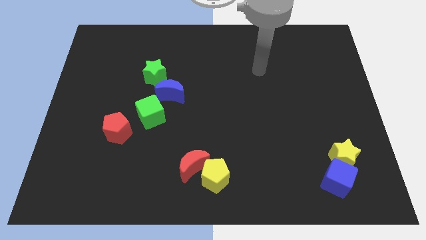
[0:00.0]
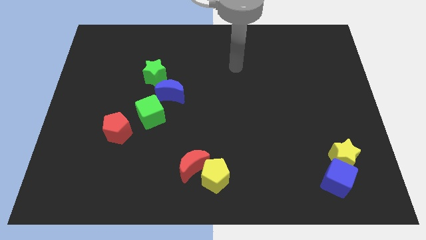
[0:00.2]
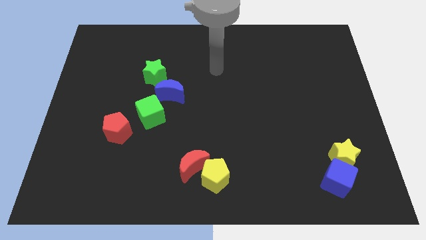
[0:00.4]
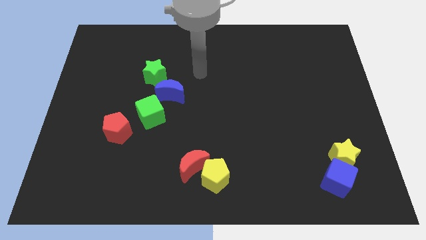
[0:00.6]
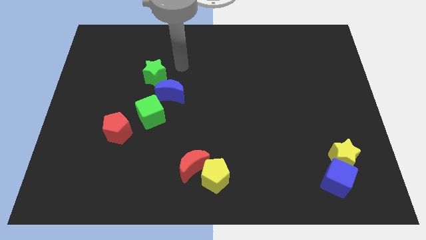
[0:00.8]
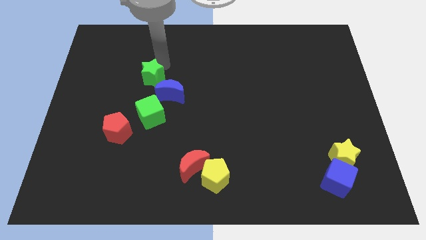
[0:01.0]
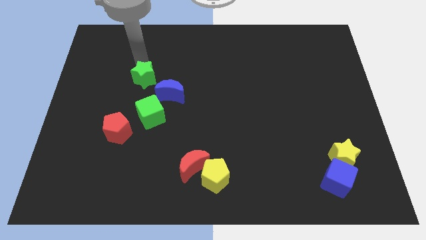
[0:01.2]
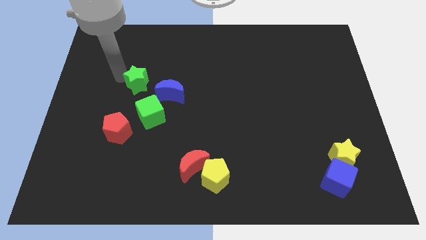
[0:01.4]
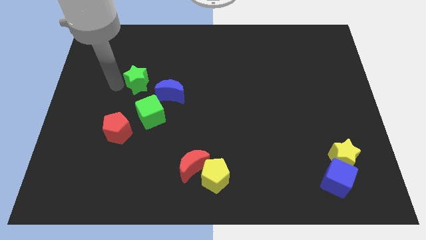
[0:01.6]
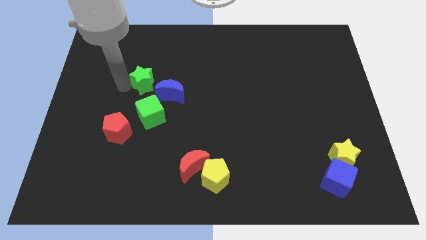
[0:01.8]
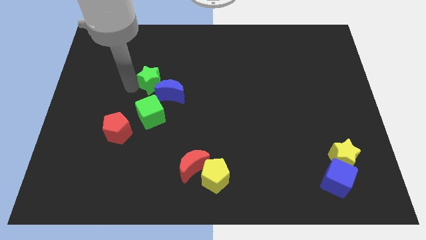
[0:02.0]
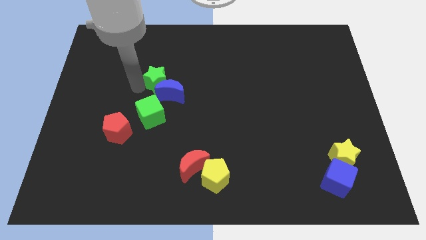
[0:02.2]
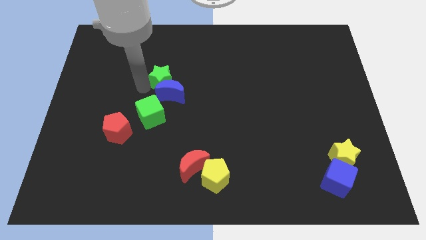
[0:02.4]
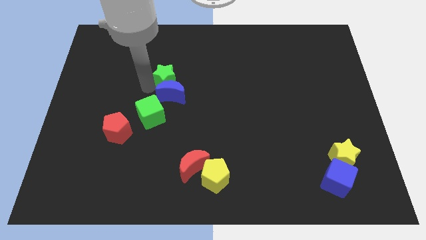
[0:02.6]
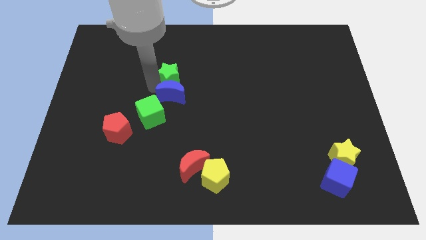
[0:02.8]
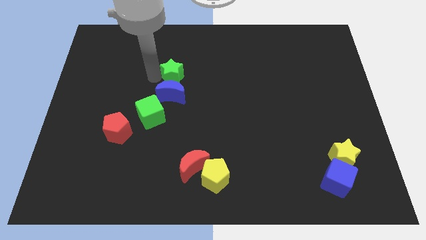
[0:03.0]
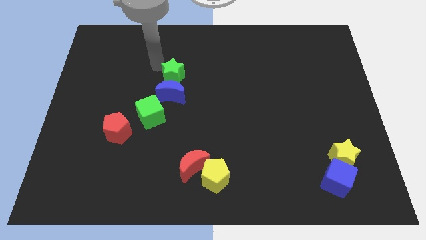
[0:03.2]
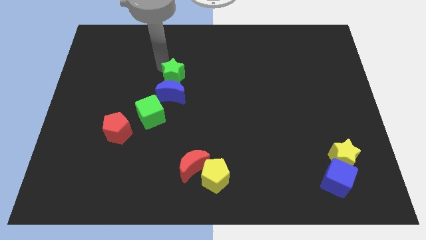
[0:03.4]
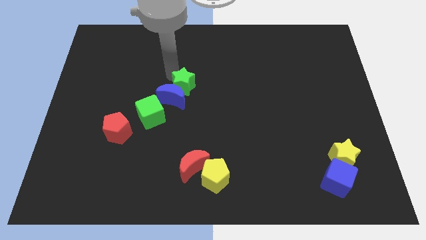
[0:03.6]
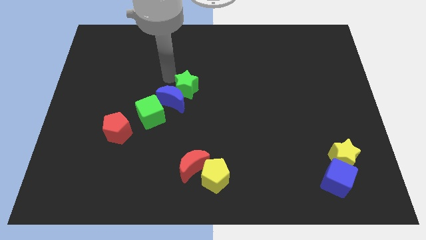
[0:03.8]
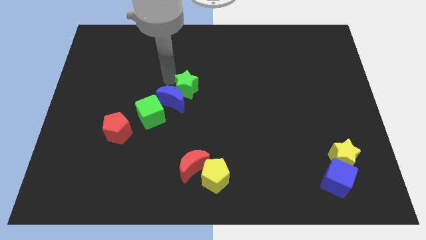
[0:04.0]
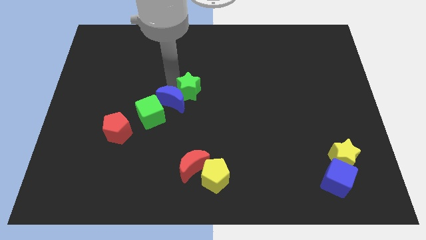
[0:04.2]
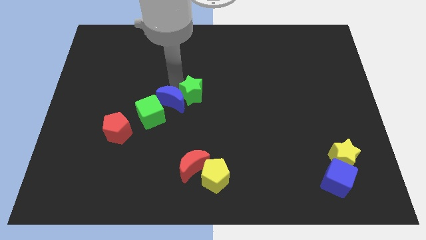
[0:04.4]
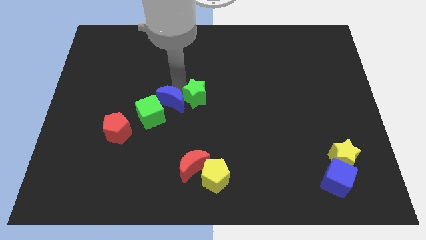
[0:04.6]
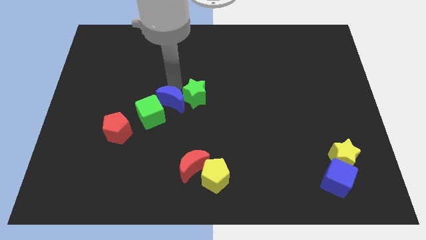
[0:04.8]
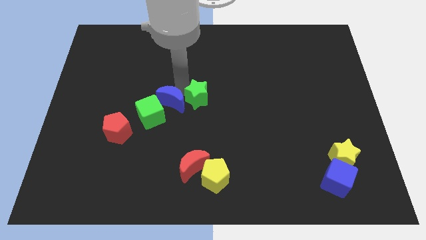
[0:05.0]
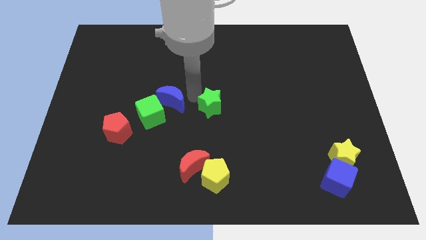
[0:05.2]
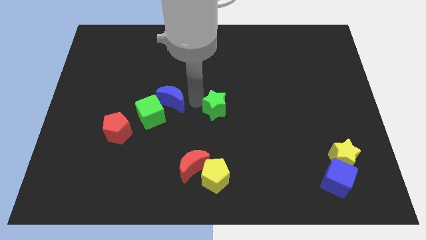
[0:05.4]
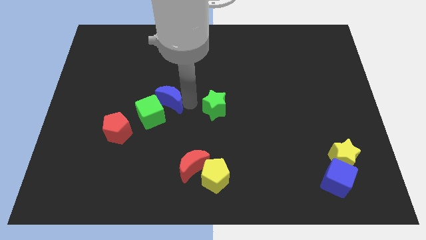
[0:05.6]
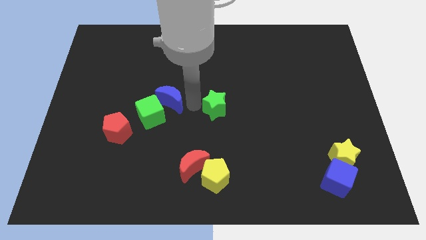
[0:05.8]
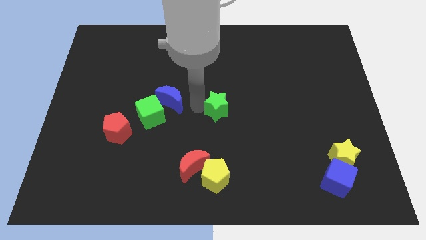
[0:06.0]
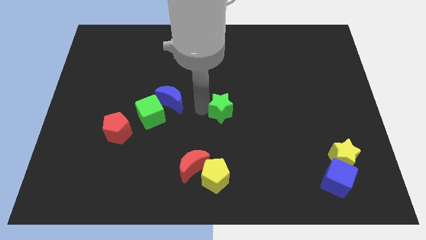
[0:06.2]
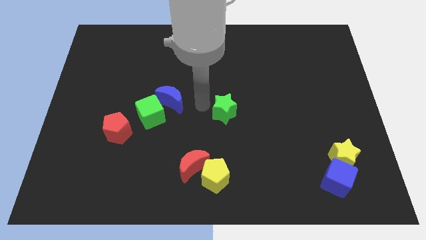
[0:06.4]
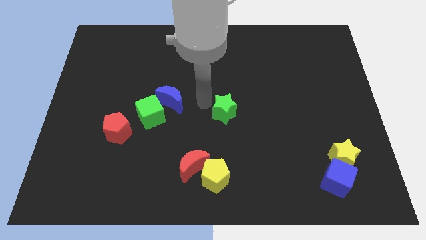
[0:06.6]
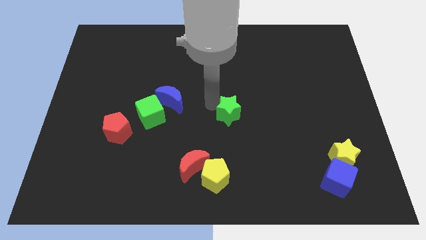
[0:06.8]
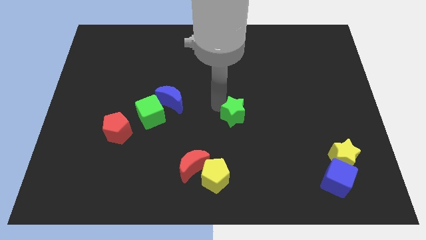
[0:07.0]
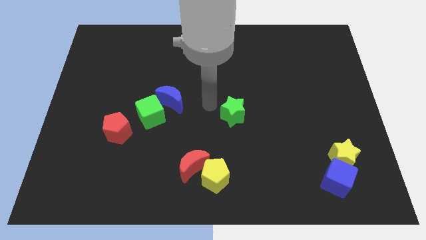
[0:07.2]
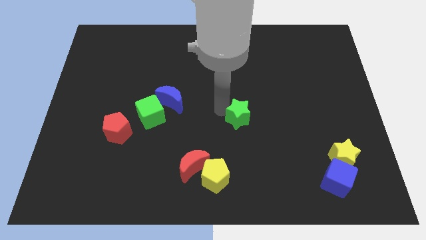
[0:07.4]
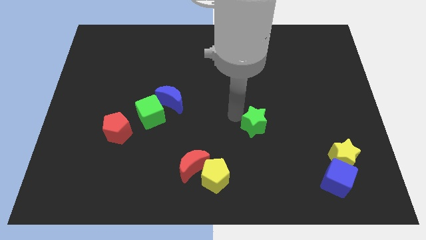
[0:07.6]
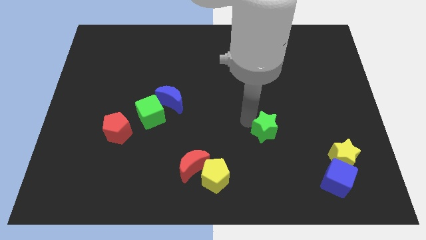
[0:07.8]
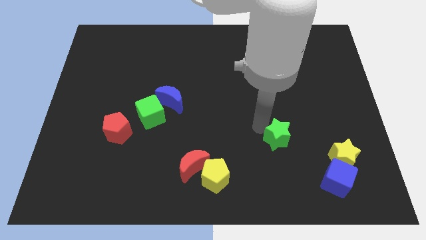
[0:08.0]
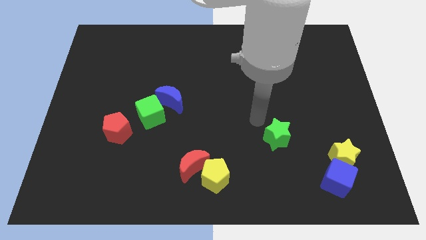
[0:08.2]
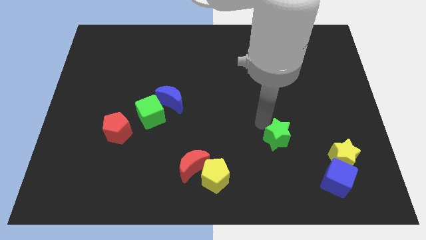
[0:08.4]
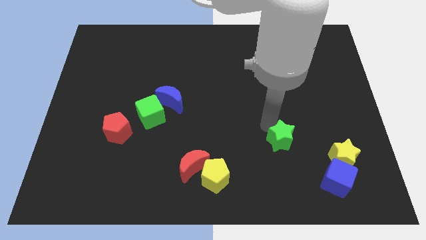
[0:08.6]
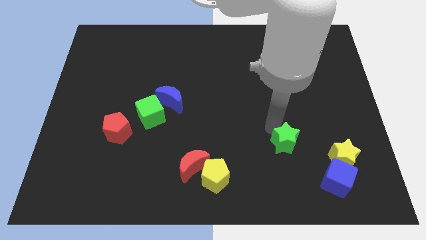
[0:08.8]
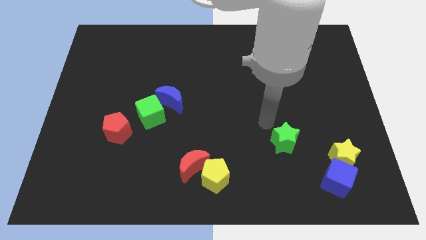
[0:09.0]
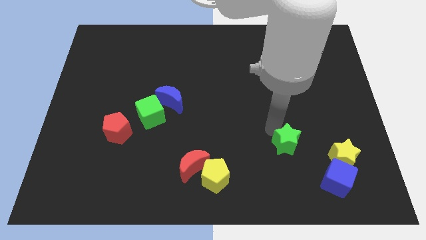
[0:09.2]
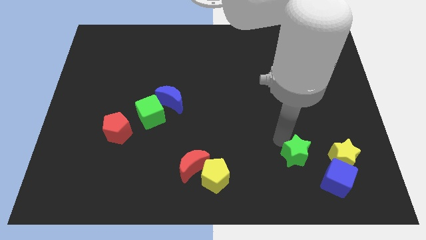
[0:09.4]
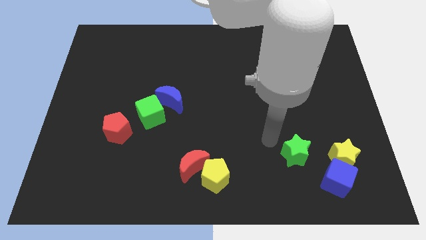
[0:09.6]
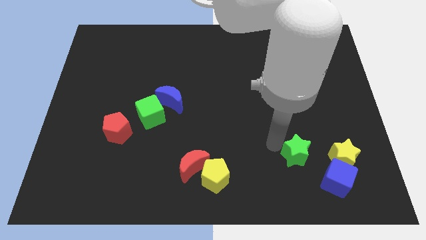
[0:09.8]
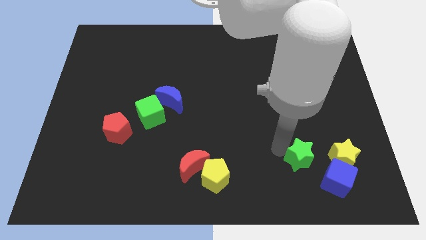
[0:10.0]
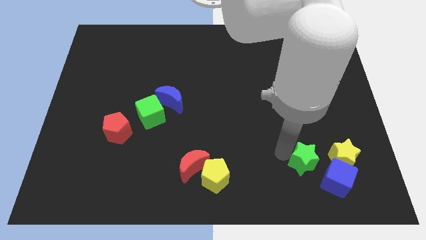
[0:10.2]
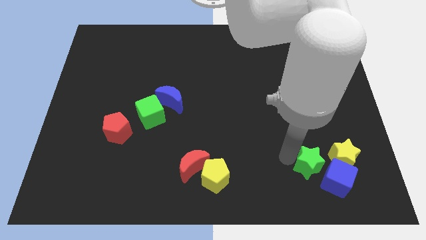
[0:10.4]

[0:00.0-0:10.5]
move the green star towards the blue cube

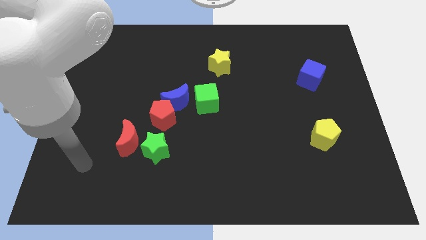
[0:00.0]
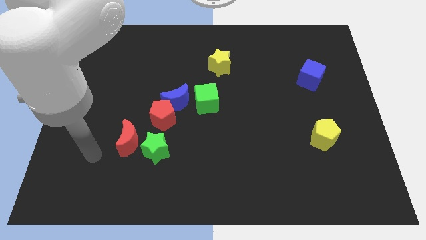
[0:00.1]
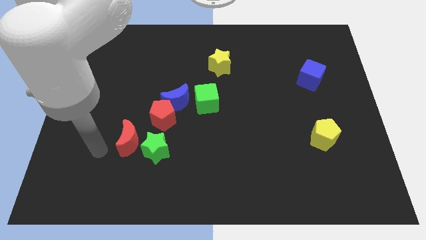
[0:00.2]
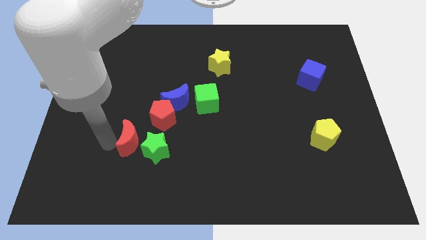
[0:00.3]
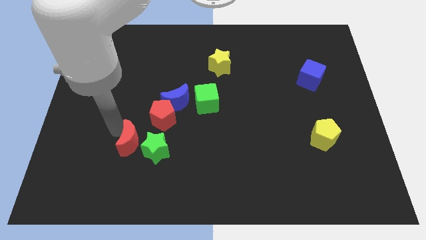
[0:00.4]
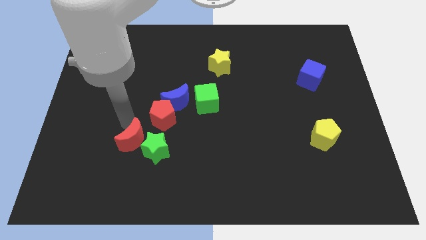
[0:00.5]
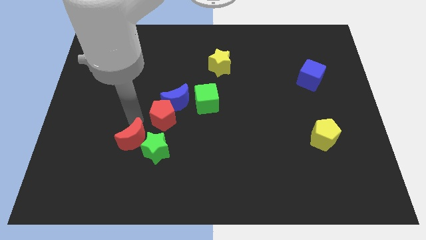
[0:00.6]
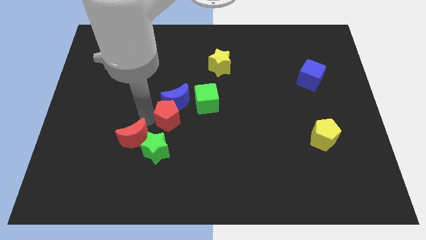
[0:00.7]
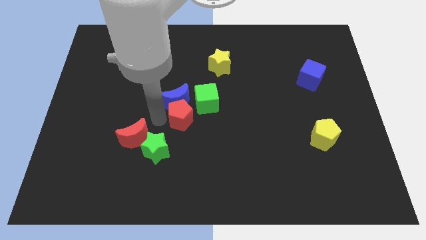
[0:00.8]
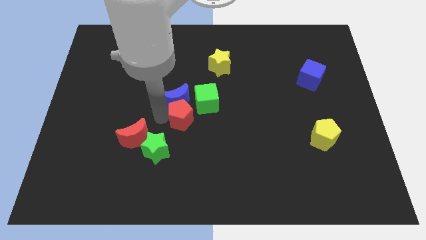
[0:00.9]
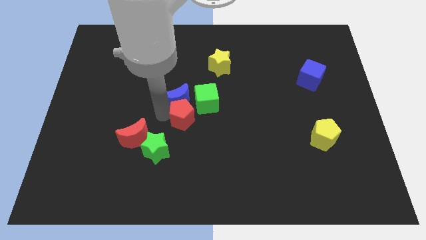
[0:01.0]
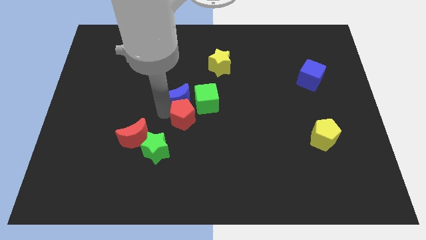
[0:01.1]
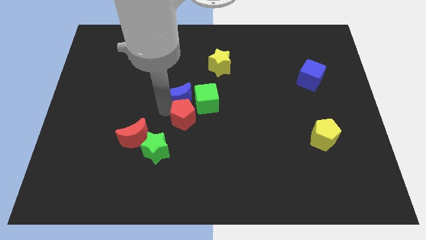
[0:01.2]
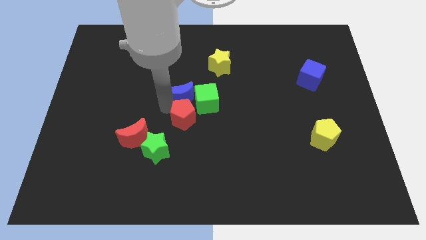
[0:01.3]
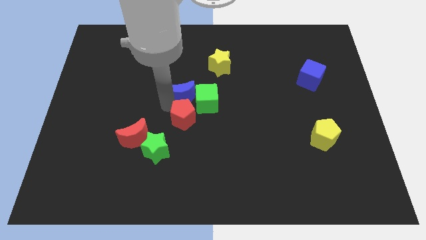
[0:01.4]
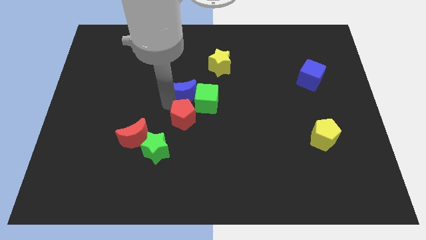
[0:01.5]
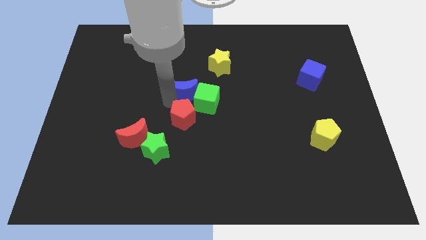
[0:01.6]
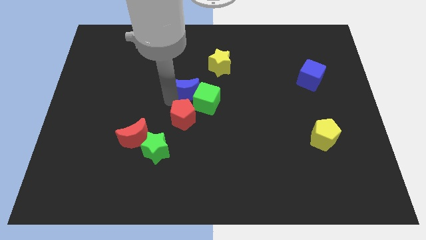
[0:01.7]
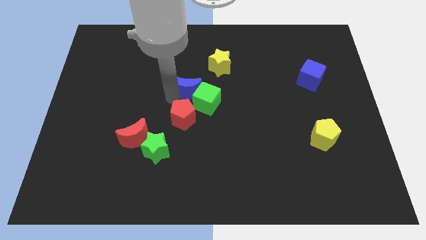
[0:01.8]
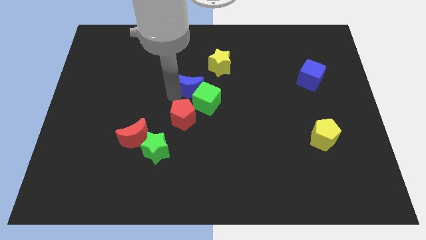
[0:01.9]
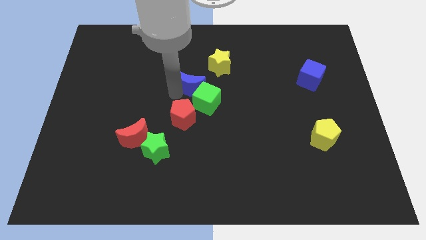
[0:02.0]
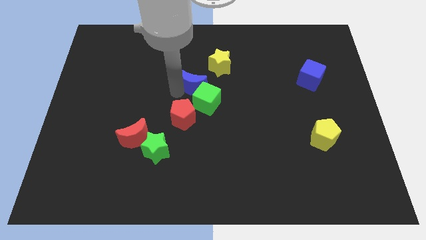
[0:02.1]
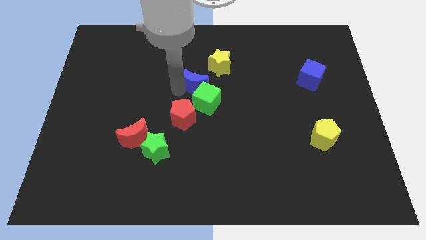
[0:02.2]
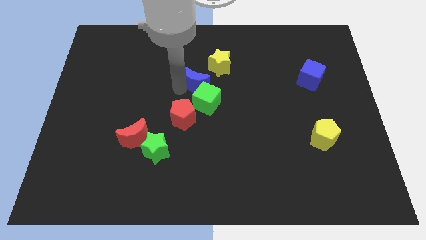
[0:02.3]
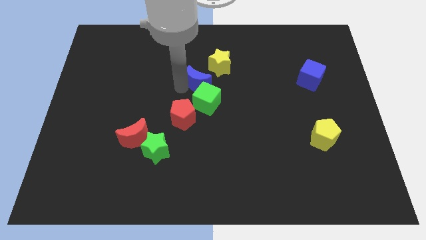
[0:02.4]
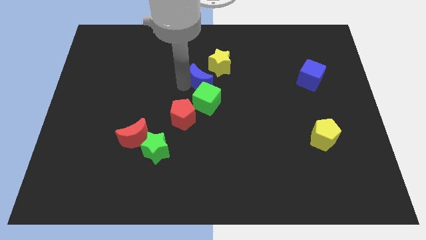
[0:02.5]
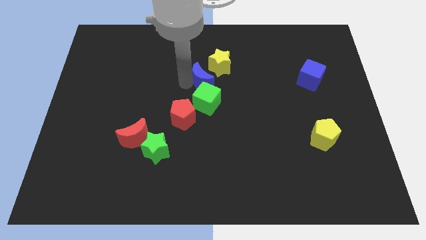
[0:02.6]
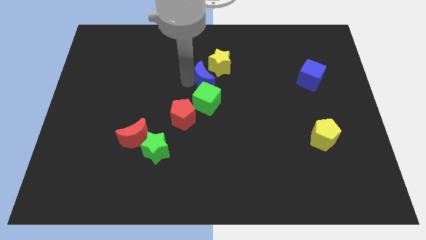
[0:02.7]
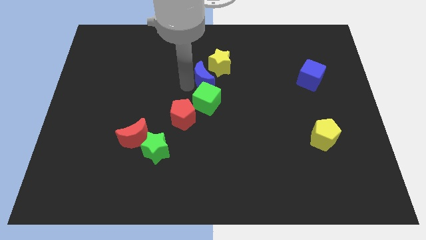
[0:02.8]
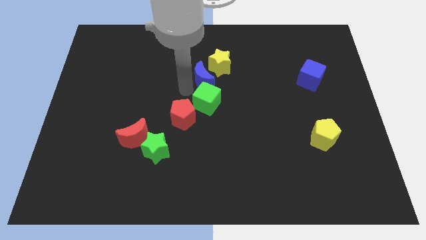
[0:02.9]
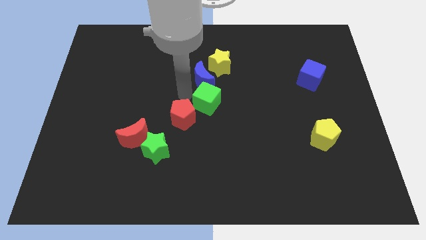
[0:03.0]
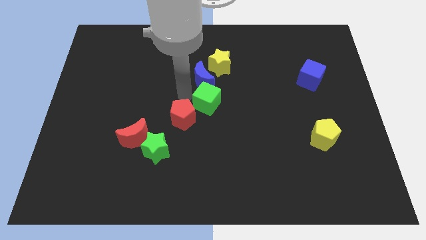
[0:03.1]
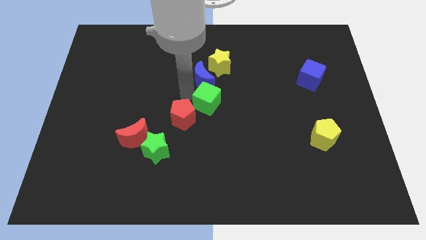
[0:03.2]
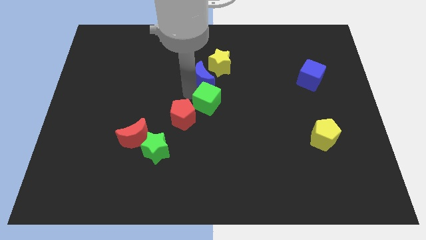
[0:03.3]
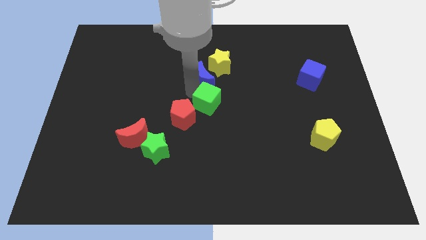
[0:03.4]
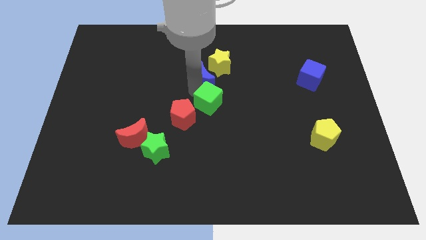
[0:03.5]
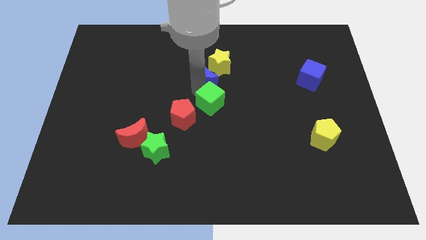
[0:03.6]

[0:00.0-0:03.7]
put the blue moon to the yellow star
